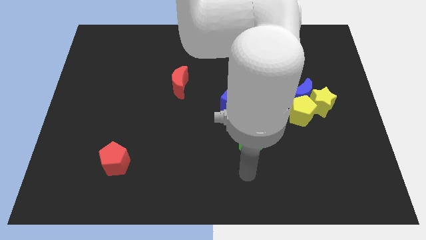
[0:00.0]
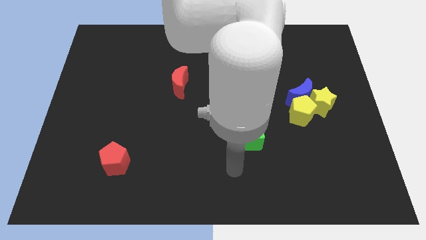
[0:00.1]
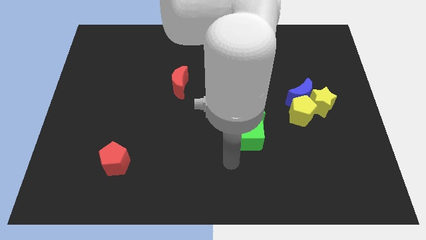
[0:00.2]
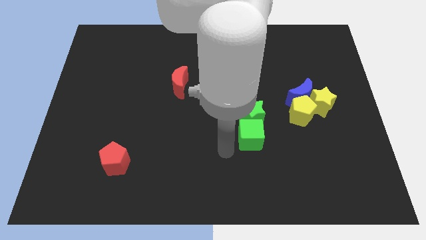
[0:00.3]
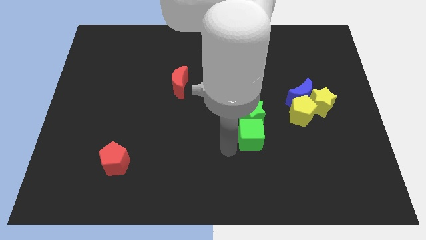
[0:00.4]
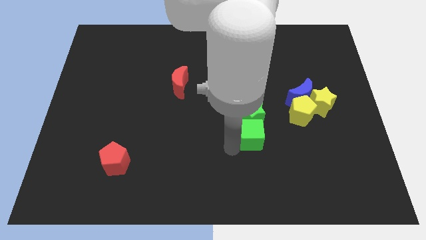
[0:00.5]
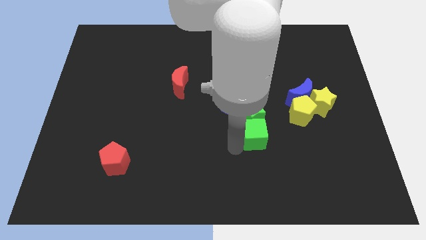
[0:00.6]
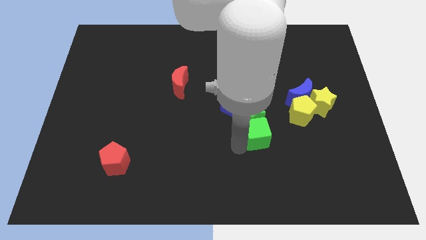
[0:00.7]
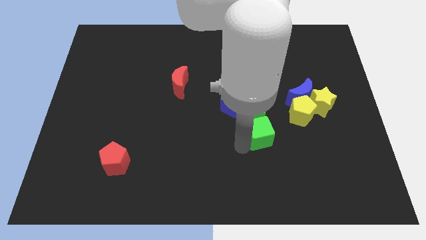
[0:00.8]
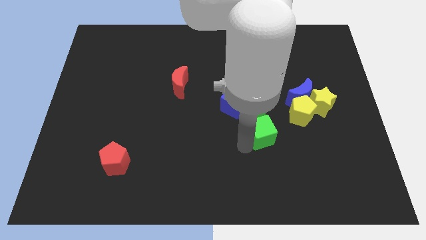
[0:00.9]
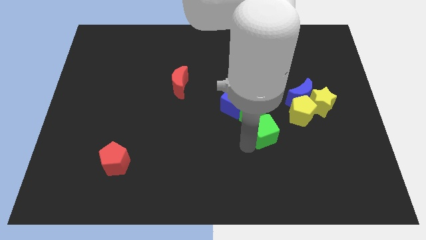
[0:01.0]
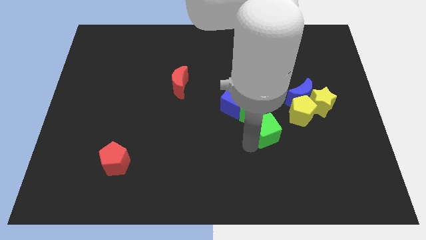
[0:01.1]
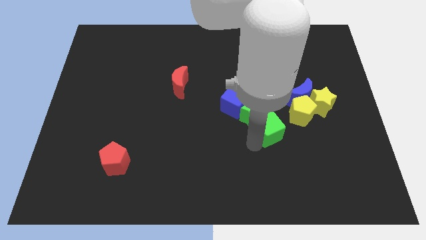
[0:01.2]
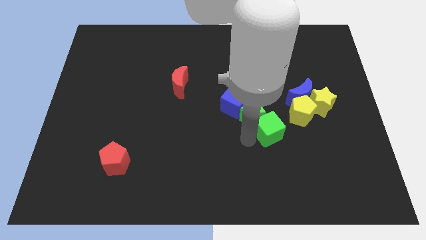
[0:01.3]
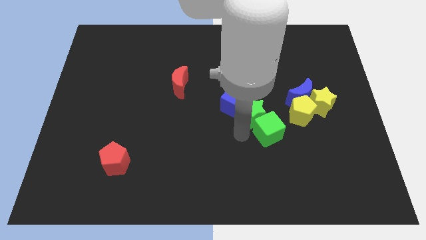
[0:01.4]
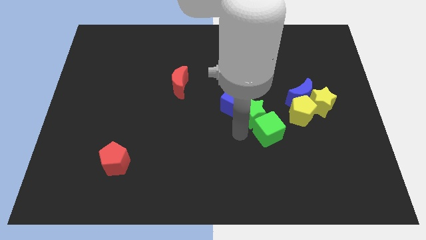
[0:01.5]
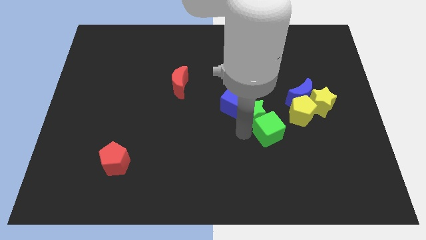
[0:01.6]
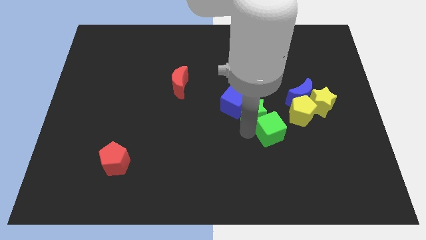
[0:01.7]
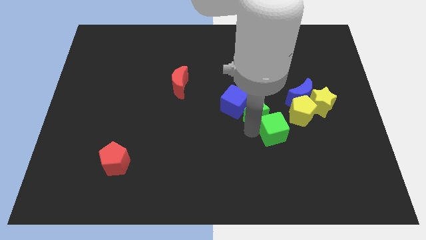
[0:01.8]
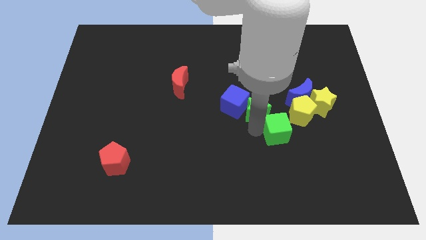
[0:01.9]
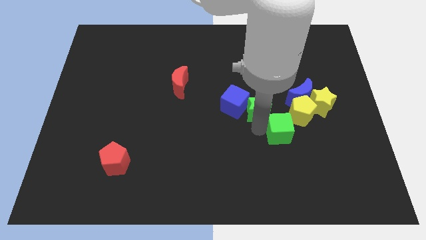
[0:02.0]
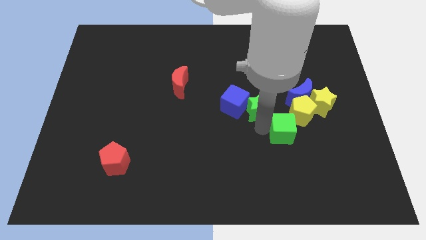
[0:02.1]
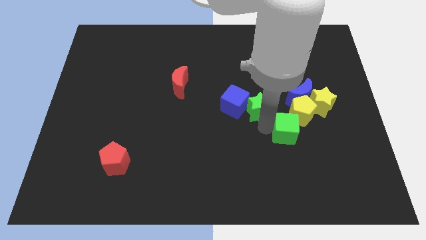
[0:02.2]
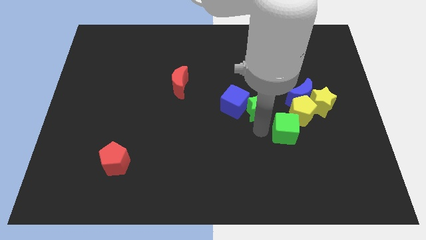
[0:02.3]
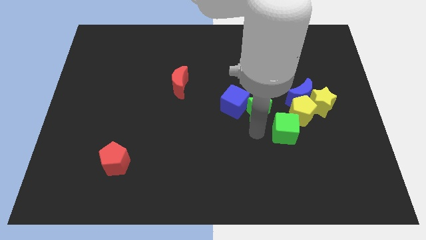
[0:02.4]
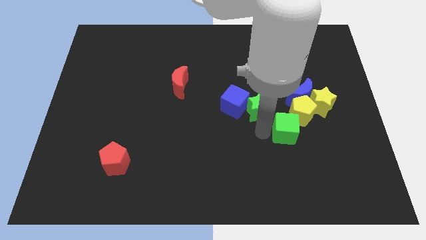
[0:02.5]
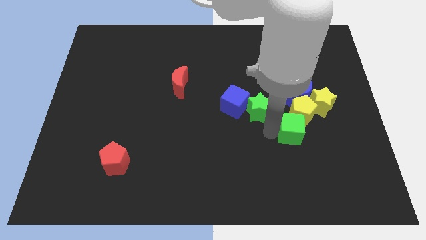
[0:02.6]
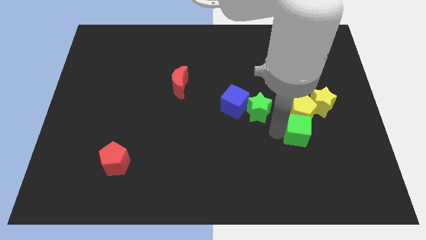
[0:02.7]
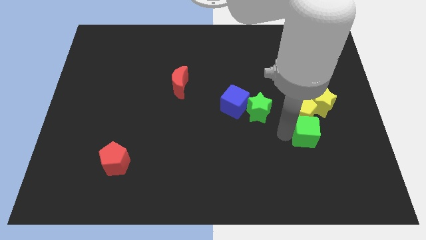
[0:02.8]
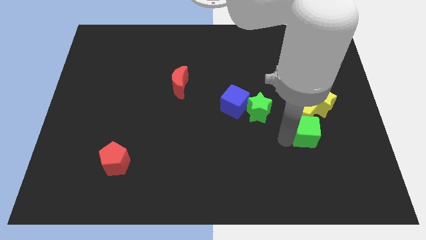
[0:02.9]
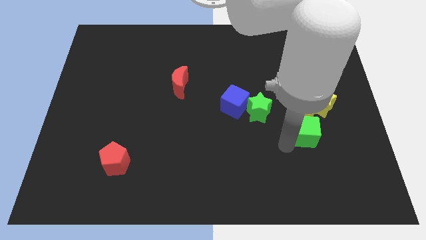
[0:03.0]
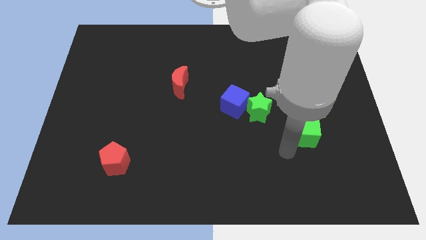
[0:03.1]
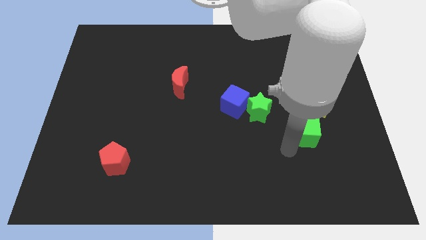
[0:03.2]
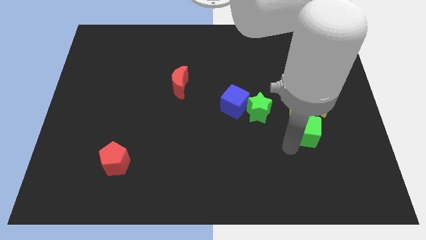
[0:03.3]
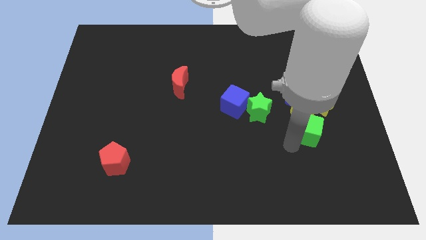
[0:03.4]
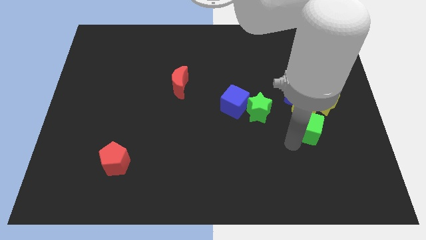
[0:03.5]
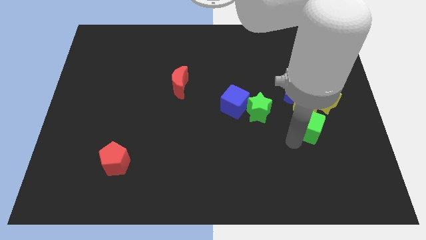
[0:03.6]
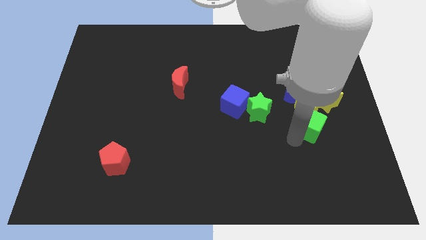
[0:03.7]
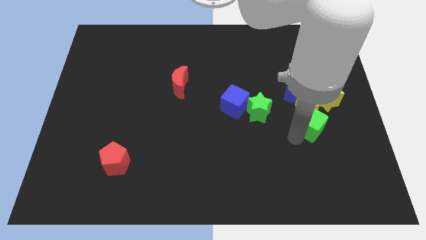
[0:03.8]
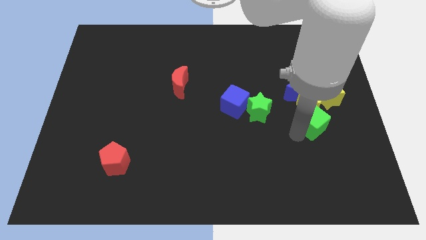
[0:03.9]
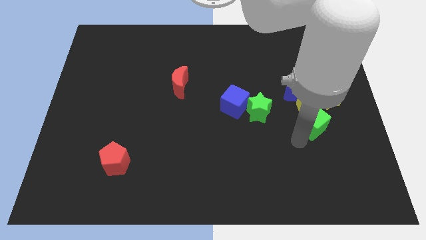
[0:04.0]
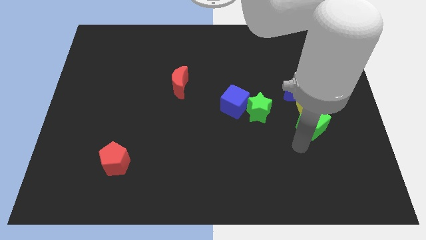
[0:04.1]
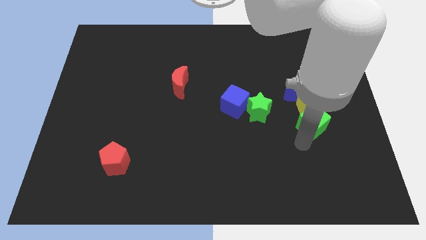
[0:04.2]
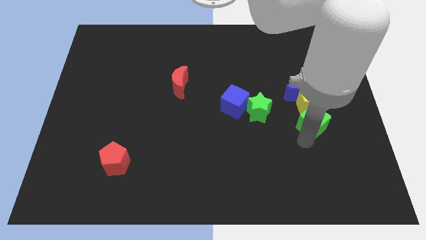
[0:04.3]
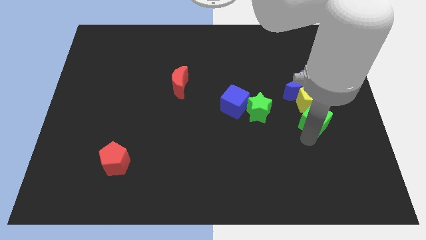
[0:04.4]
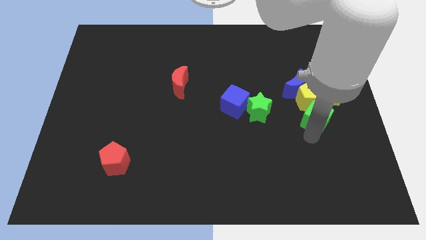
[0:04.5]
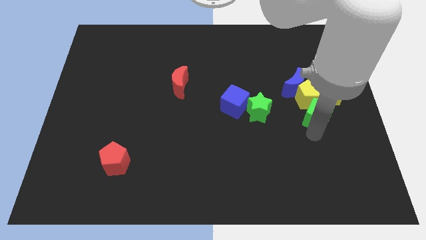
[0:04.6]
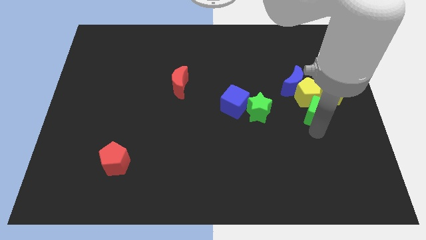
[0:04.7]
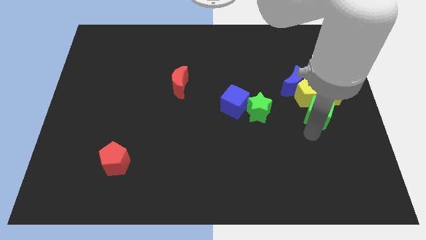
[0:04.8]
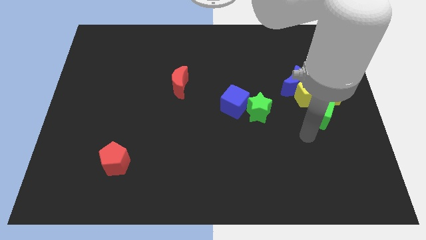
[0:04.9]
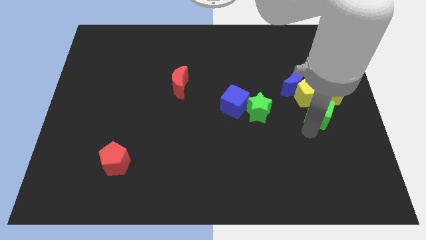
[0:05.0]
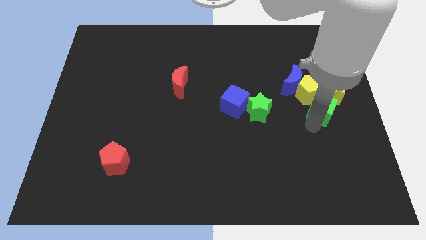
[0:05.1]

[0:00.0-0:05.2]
move the green cube towards the yellow star

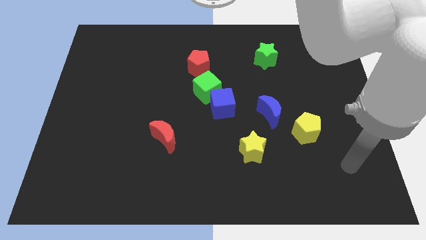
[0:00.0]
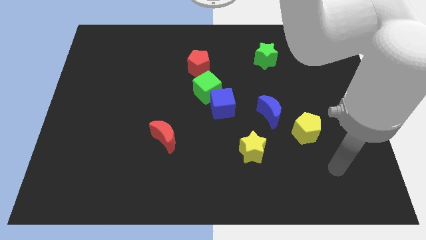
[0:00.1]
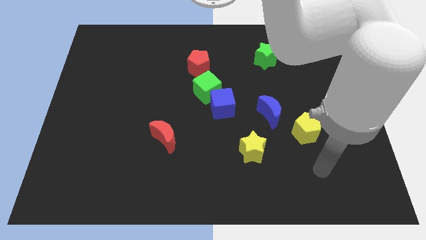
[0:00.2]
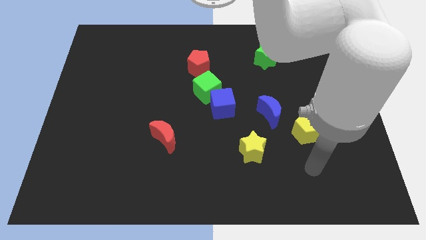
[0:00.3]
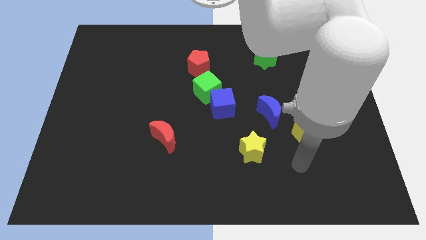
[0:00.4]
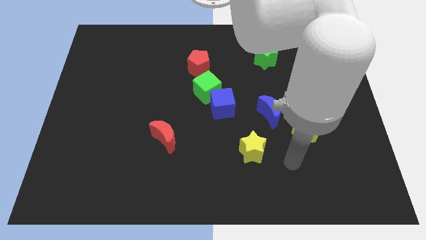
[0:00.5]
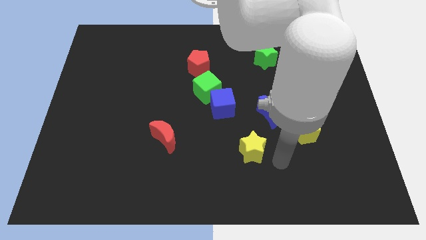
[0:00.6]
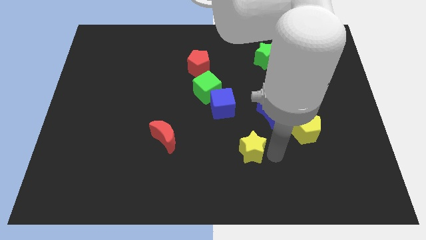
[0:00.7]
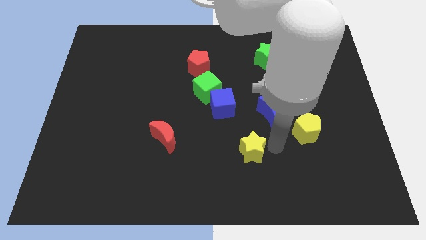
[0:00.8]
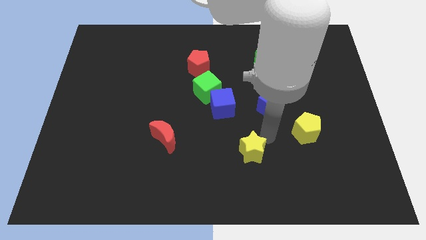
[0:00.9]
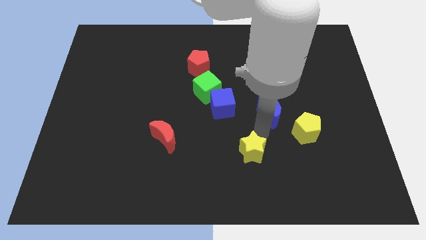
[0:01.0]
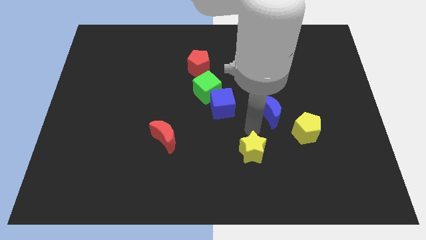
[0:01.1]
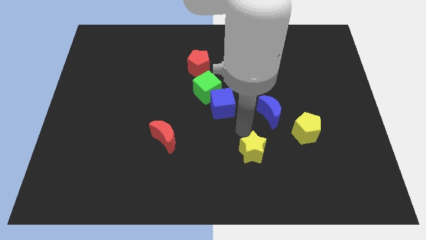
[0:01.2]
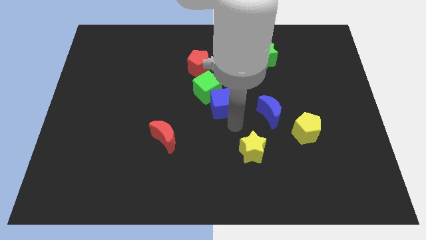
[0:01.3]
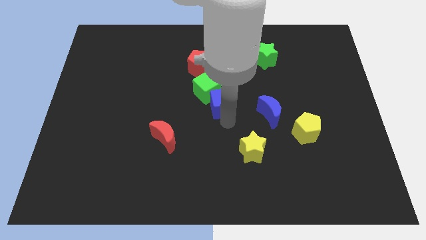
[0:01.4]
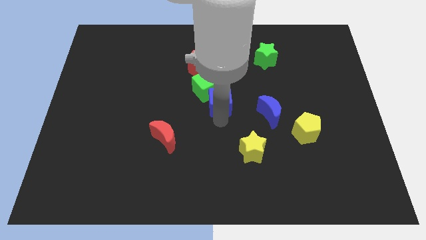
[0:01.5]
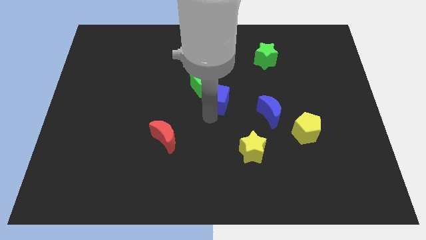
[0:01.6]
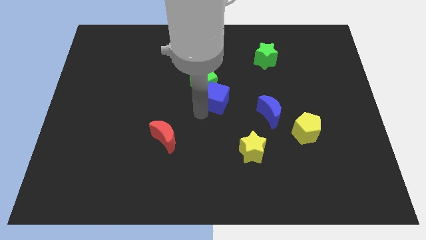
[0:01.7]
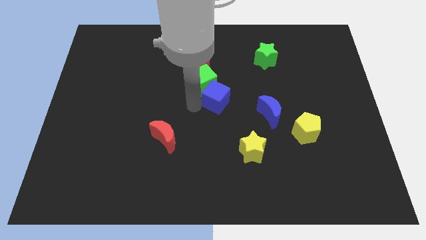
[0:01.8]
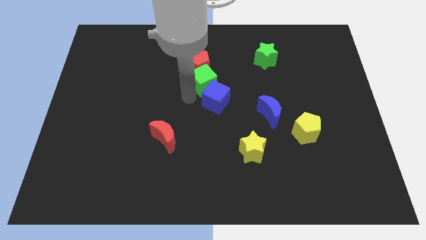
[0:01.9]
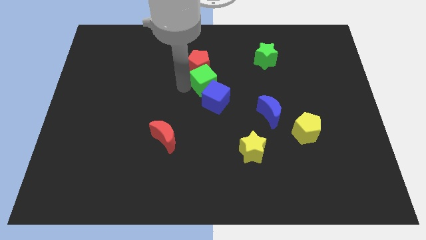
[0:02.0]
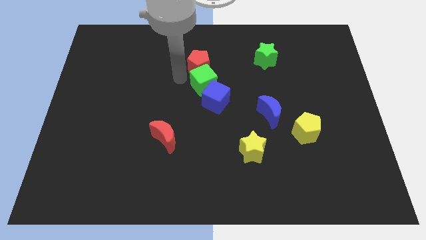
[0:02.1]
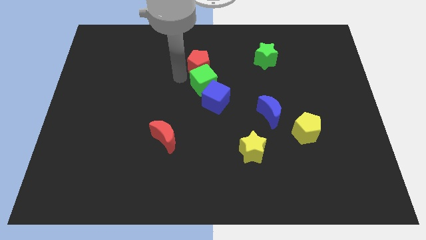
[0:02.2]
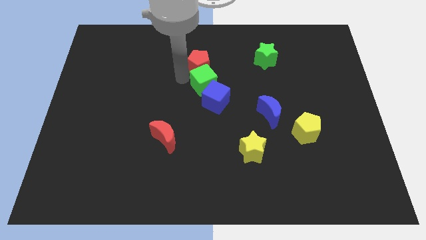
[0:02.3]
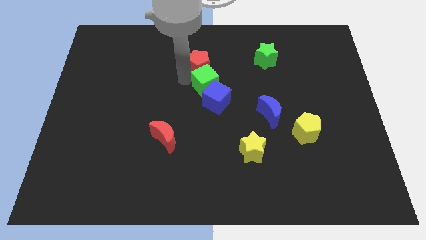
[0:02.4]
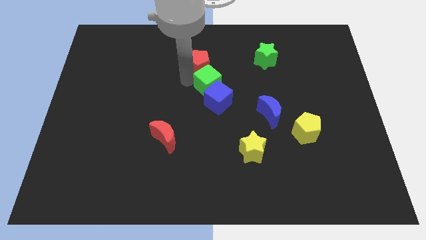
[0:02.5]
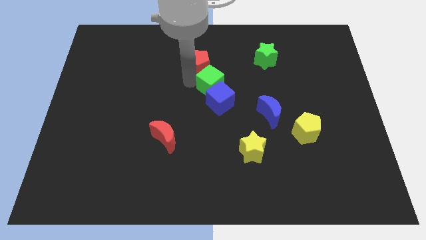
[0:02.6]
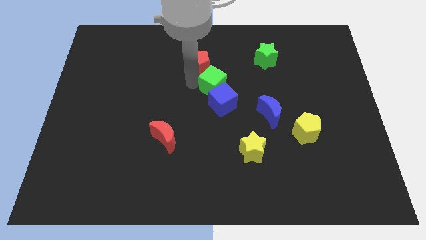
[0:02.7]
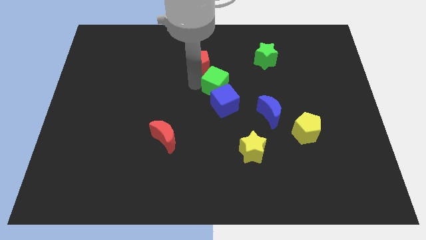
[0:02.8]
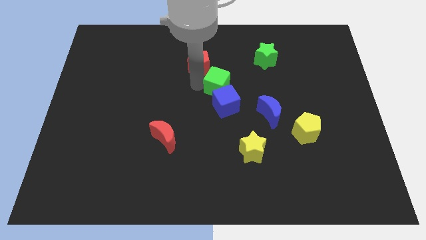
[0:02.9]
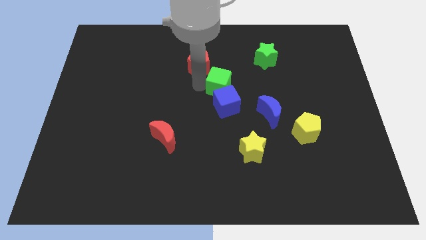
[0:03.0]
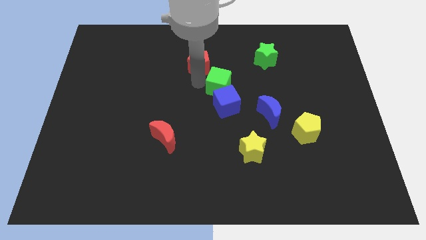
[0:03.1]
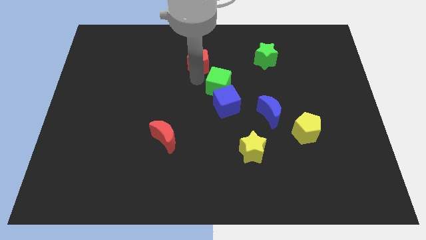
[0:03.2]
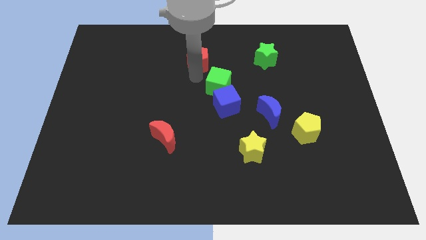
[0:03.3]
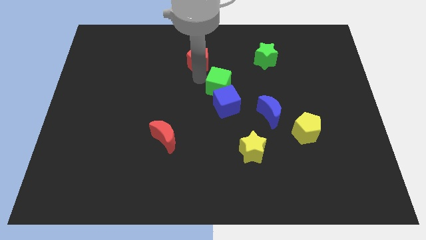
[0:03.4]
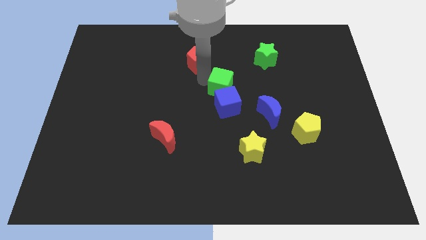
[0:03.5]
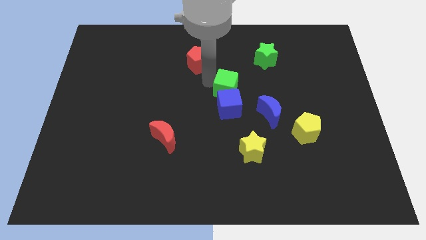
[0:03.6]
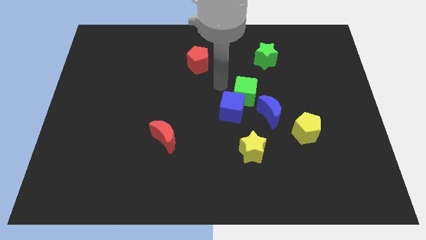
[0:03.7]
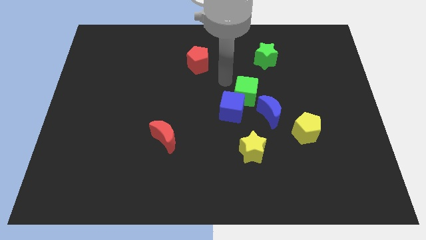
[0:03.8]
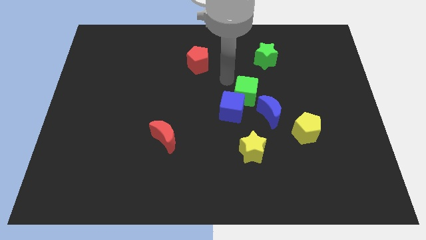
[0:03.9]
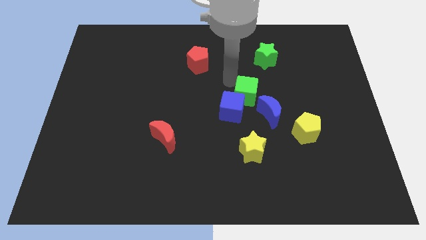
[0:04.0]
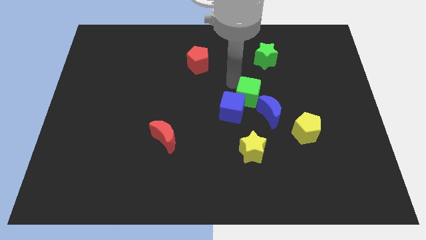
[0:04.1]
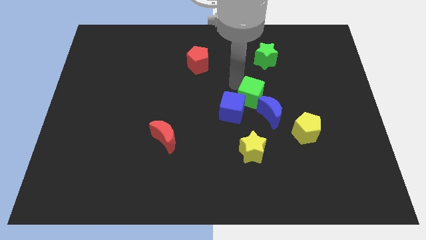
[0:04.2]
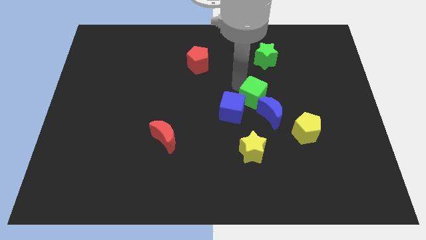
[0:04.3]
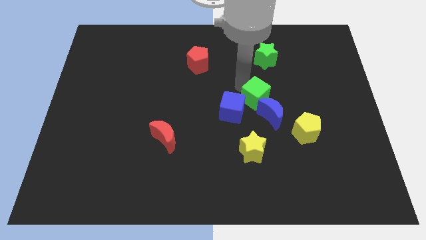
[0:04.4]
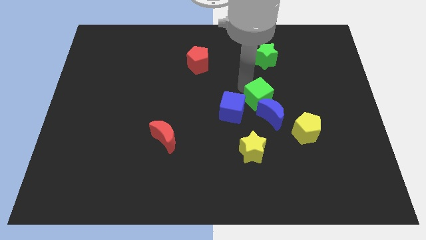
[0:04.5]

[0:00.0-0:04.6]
move the green cube close to the blue moon
